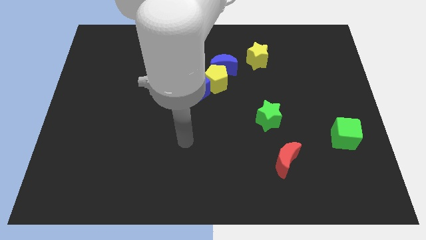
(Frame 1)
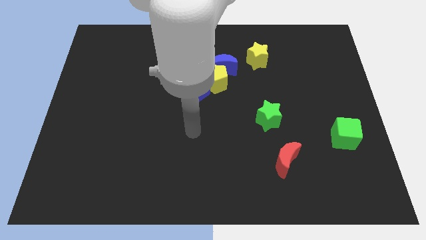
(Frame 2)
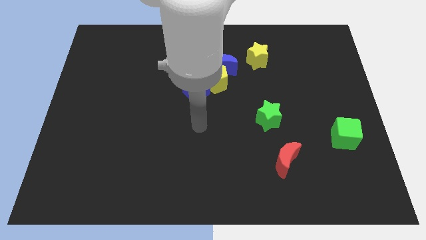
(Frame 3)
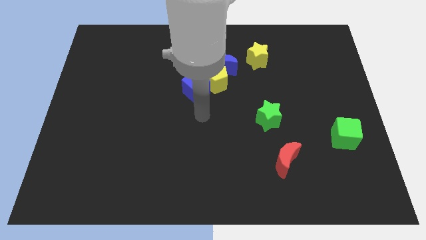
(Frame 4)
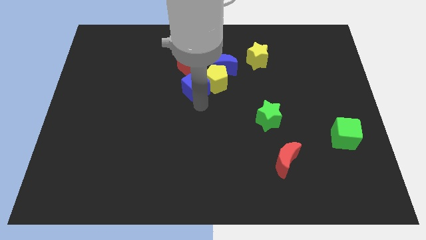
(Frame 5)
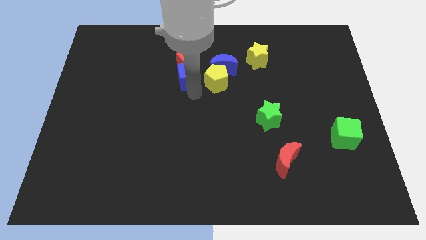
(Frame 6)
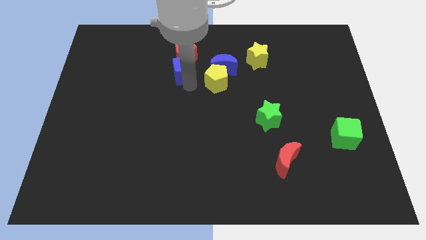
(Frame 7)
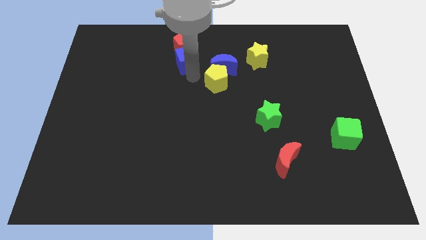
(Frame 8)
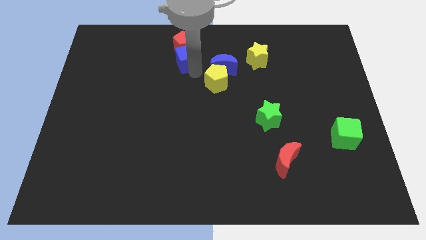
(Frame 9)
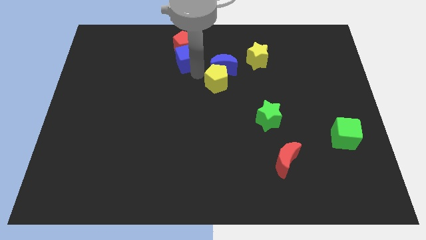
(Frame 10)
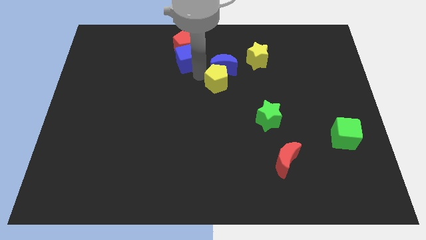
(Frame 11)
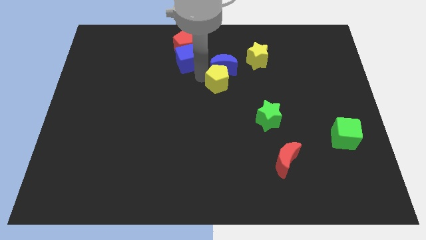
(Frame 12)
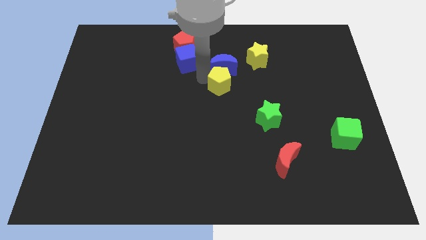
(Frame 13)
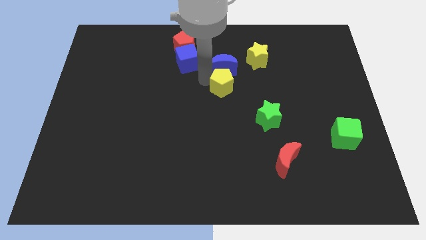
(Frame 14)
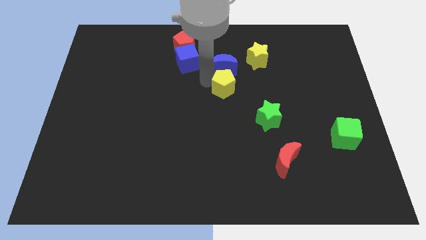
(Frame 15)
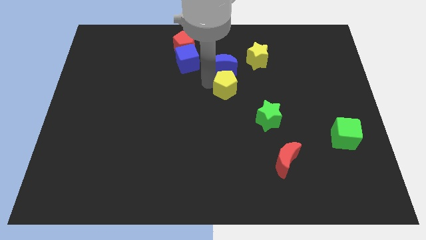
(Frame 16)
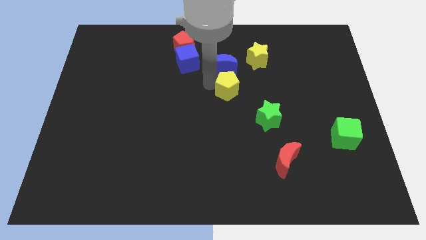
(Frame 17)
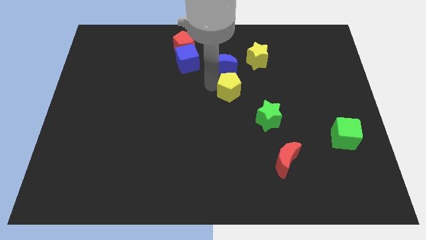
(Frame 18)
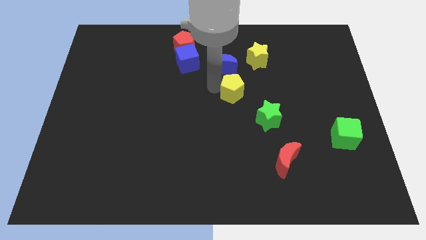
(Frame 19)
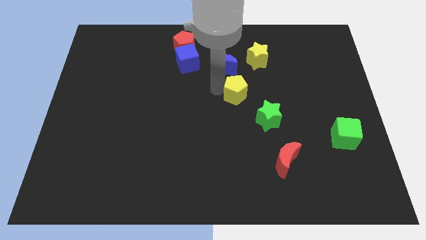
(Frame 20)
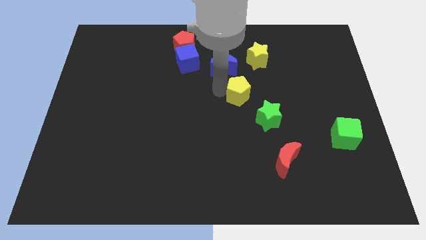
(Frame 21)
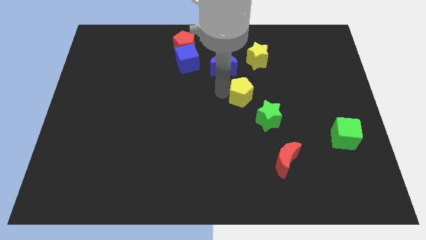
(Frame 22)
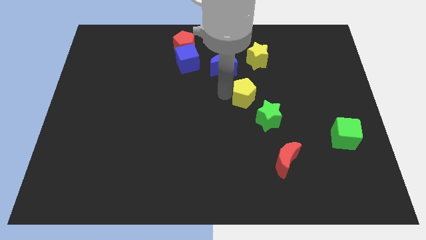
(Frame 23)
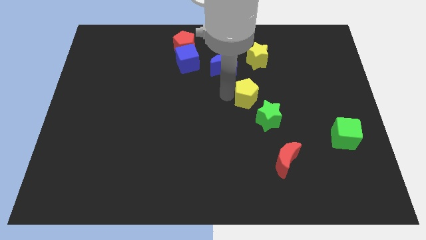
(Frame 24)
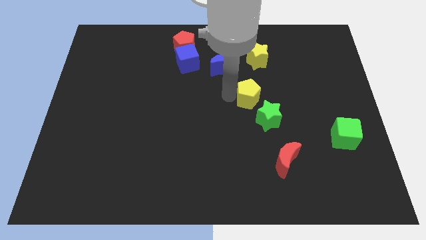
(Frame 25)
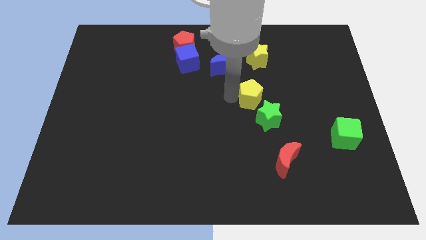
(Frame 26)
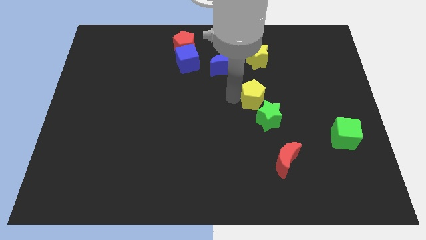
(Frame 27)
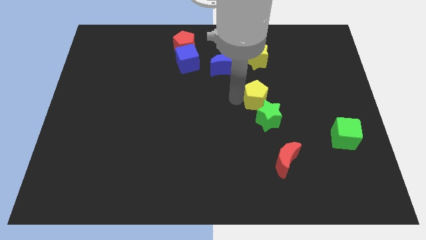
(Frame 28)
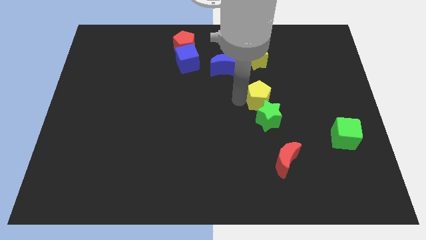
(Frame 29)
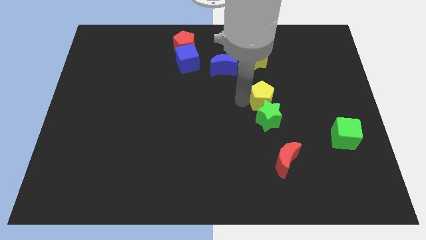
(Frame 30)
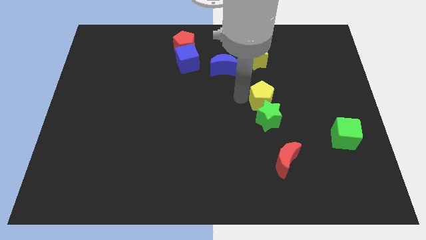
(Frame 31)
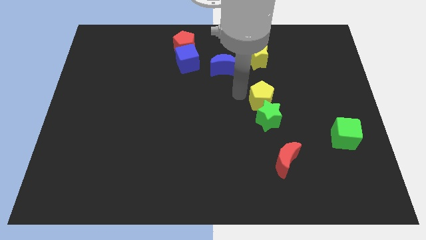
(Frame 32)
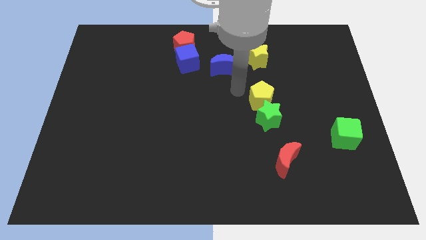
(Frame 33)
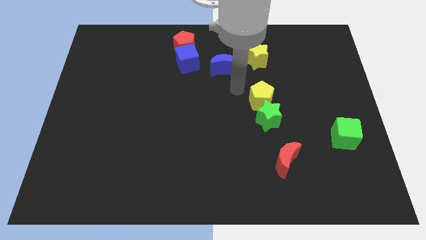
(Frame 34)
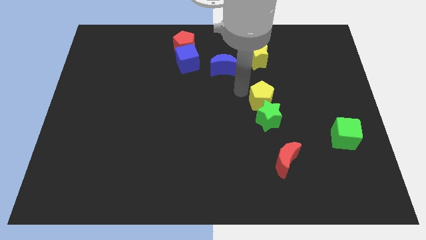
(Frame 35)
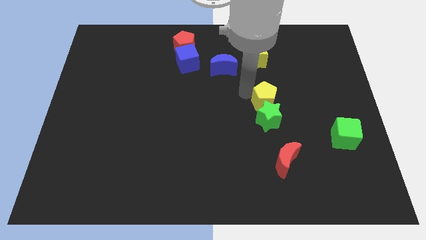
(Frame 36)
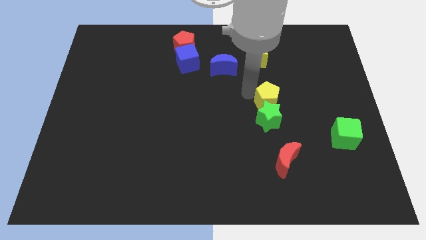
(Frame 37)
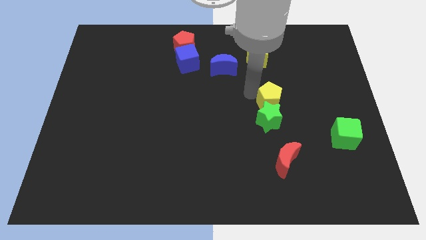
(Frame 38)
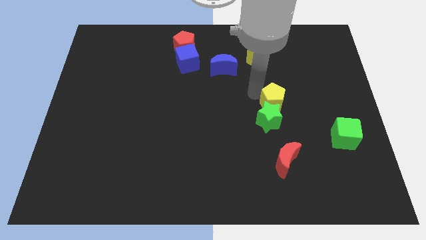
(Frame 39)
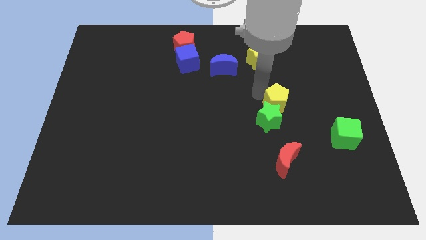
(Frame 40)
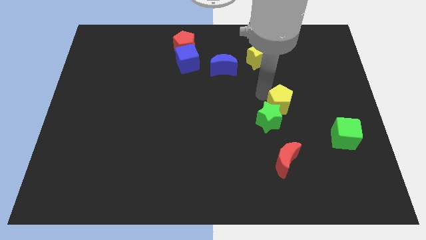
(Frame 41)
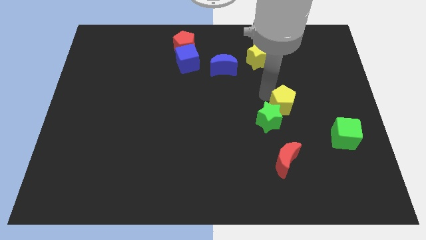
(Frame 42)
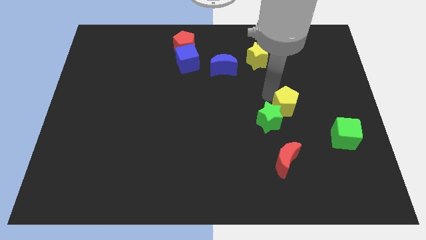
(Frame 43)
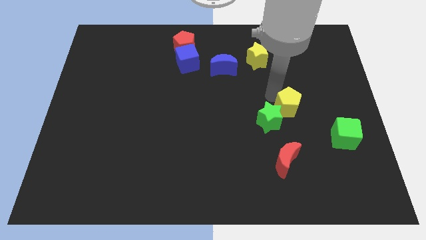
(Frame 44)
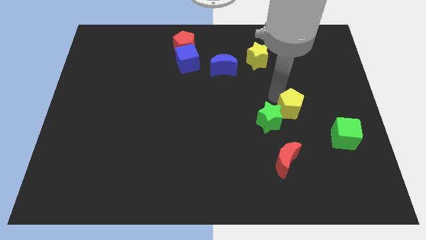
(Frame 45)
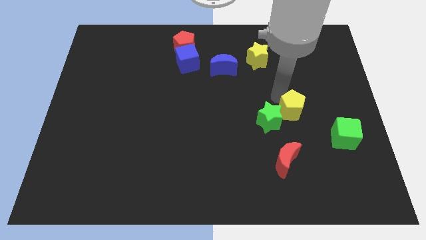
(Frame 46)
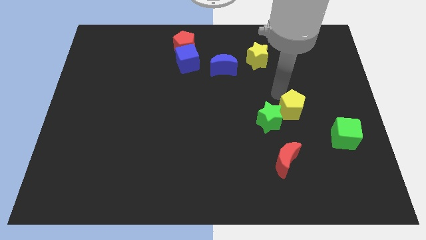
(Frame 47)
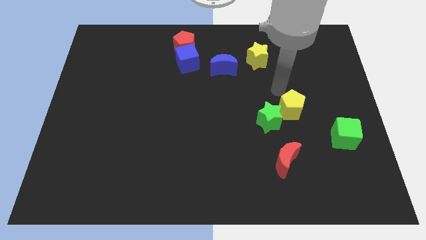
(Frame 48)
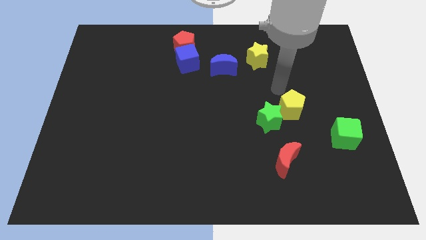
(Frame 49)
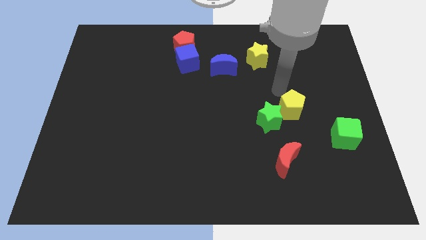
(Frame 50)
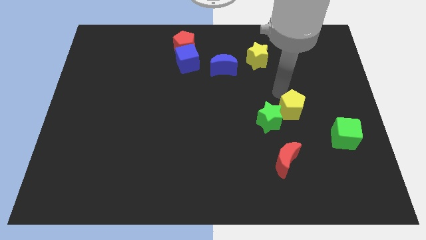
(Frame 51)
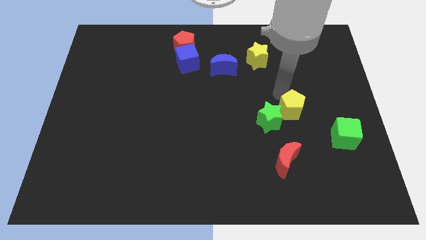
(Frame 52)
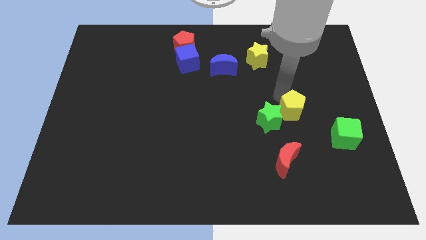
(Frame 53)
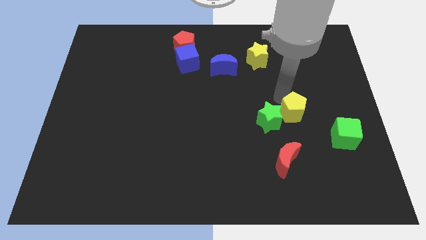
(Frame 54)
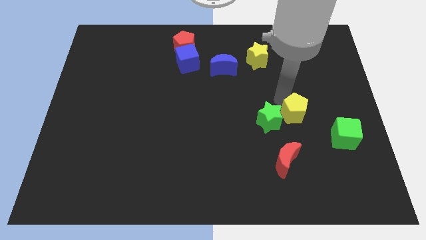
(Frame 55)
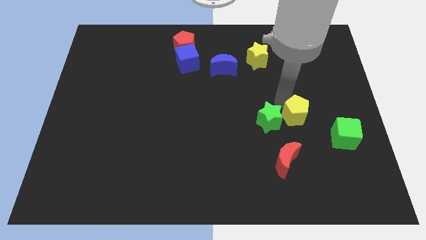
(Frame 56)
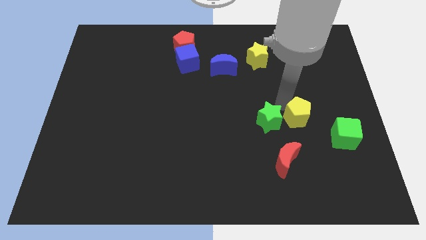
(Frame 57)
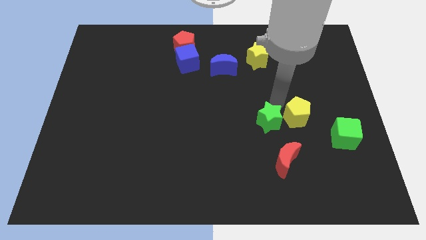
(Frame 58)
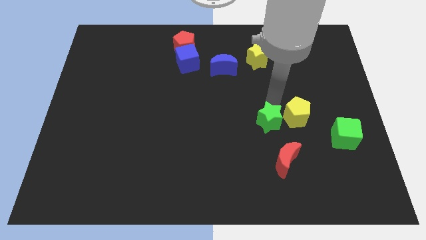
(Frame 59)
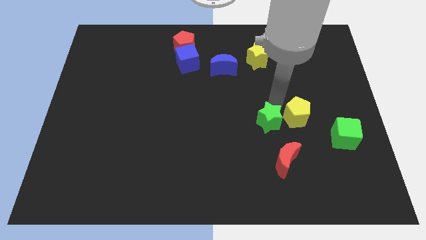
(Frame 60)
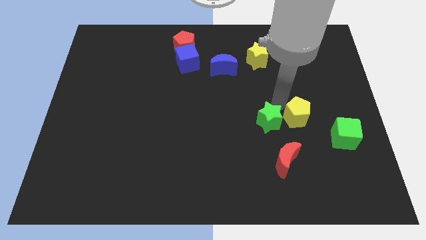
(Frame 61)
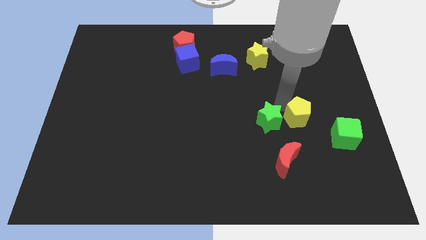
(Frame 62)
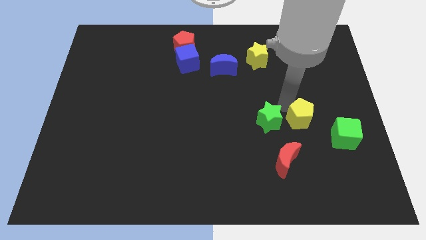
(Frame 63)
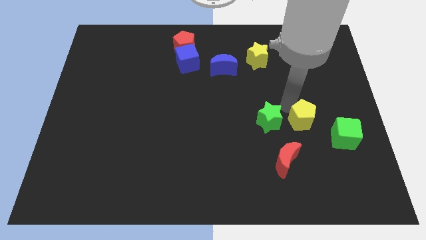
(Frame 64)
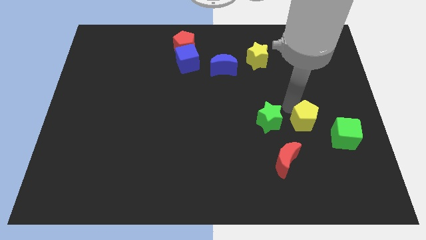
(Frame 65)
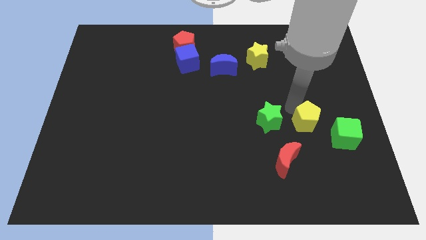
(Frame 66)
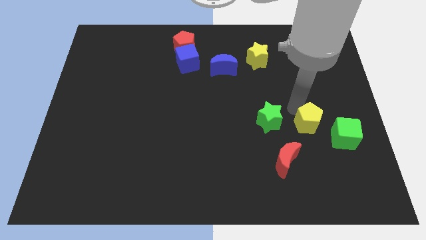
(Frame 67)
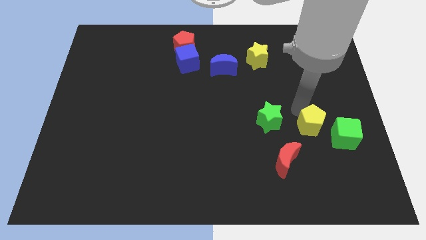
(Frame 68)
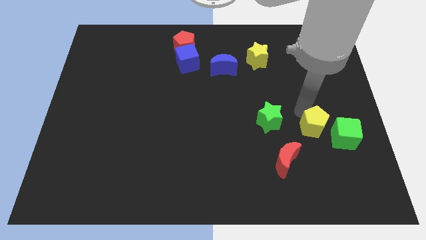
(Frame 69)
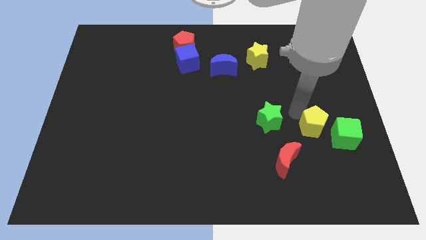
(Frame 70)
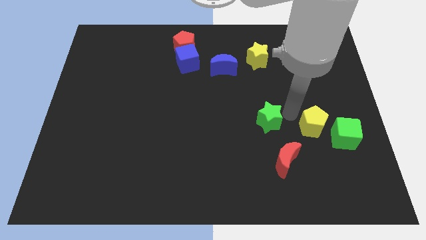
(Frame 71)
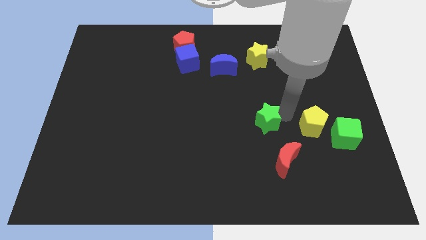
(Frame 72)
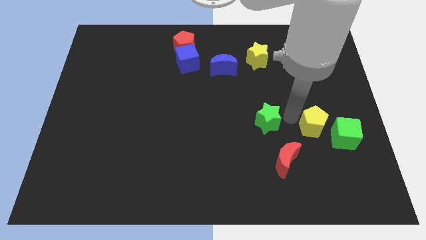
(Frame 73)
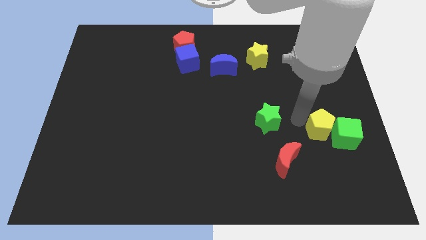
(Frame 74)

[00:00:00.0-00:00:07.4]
push the yellow pentagon close to the green cube
